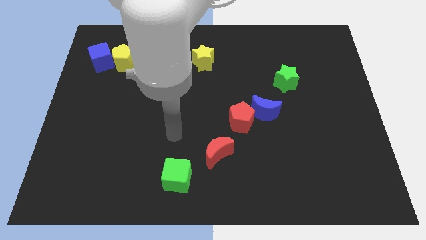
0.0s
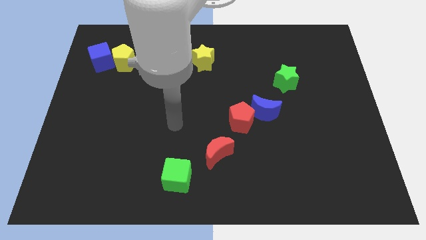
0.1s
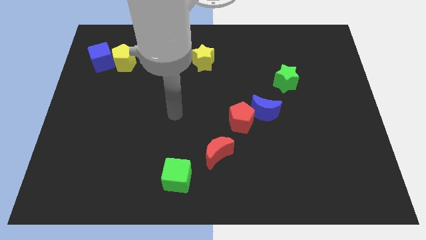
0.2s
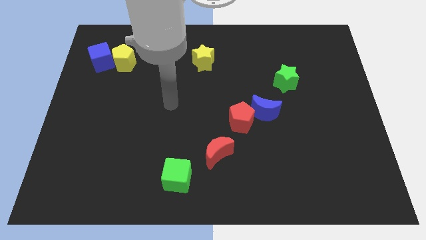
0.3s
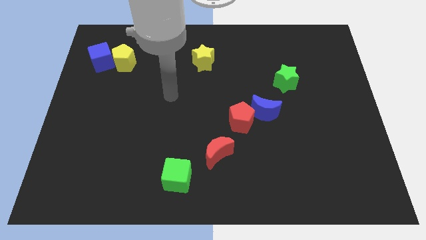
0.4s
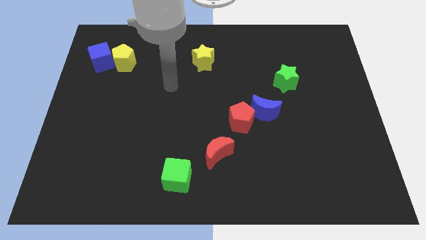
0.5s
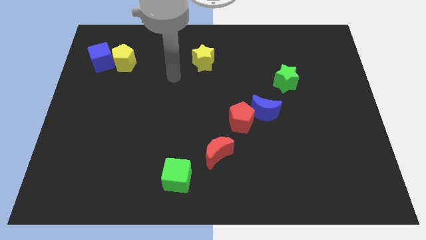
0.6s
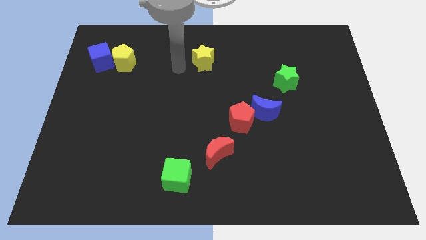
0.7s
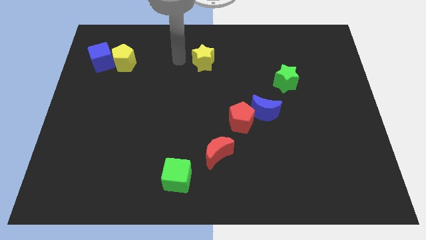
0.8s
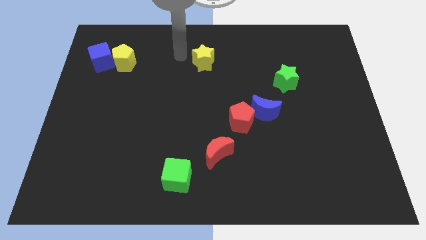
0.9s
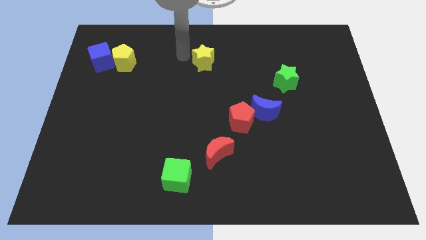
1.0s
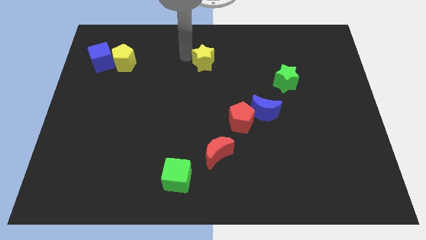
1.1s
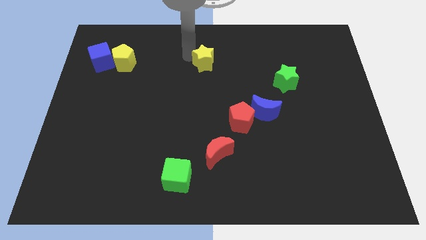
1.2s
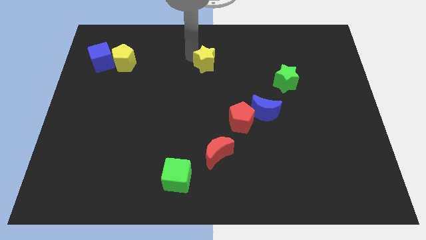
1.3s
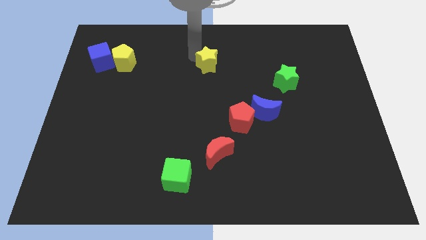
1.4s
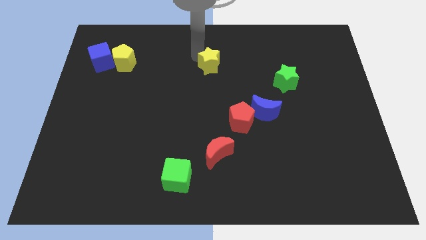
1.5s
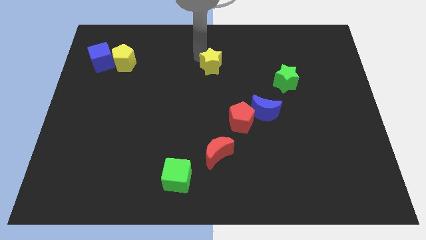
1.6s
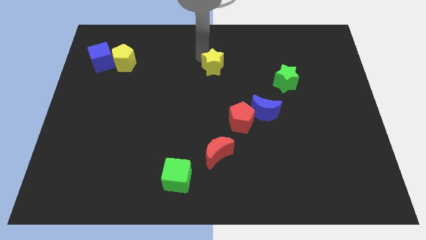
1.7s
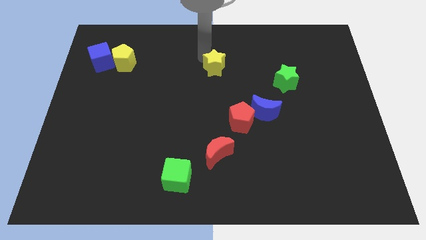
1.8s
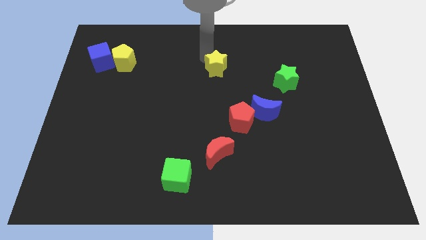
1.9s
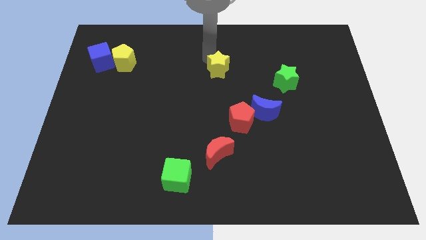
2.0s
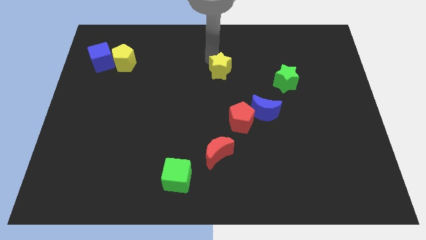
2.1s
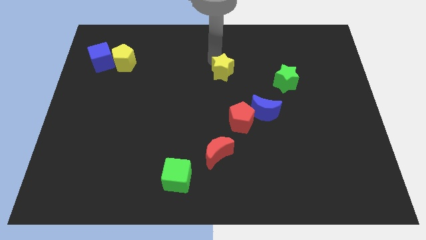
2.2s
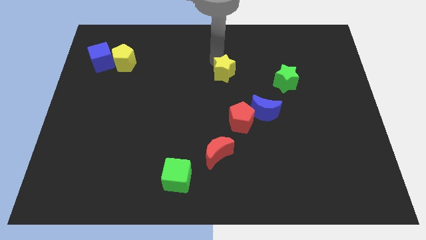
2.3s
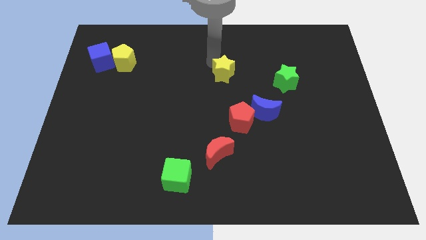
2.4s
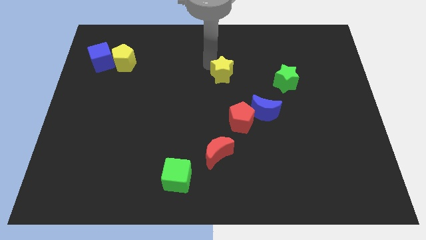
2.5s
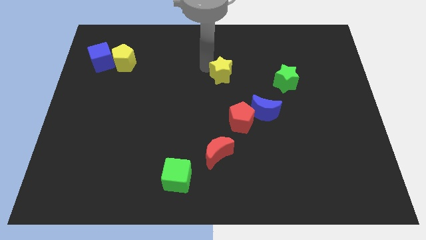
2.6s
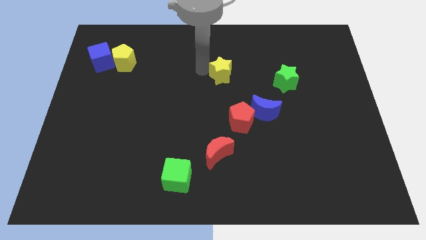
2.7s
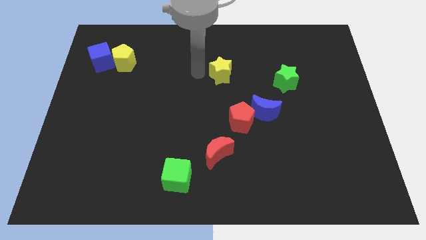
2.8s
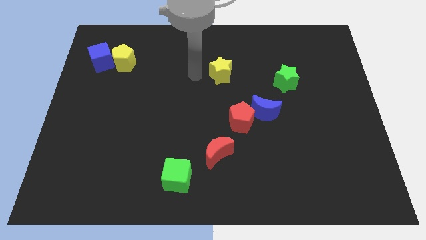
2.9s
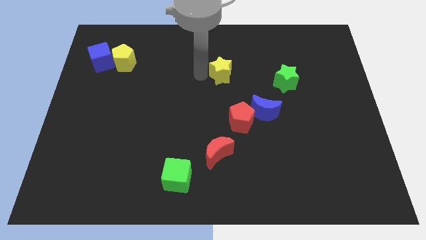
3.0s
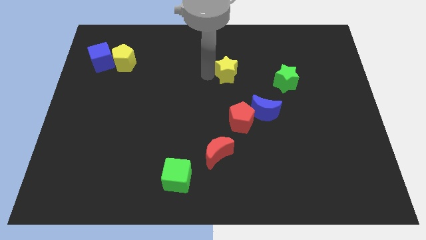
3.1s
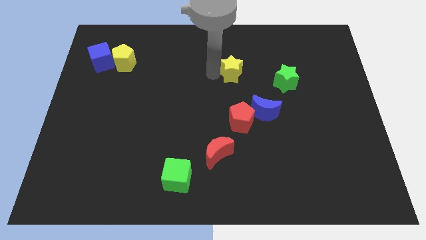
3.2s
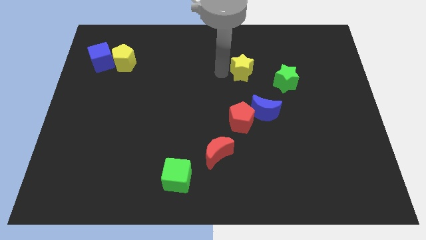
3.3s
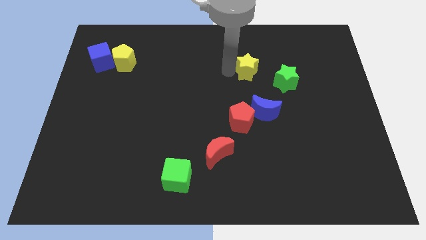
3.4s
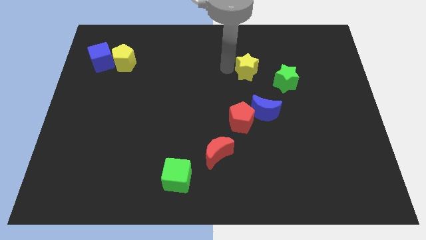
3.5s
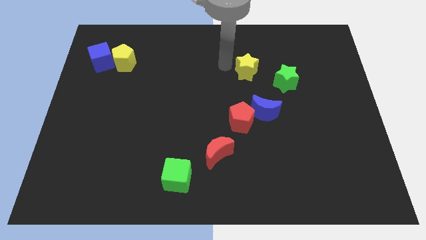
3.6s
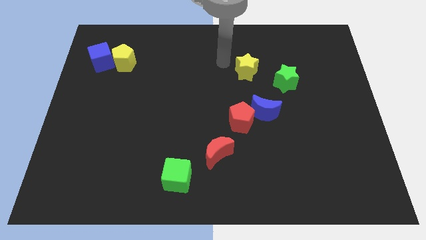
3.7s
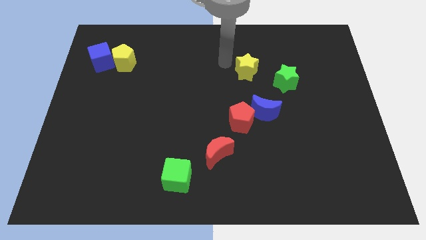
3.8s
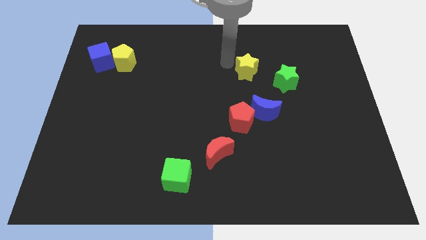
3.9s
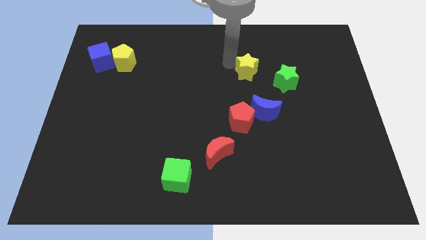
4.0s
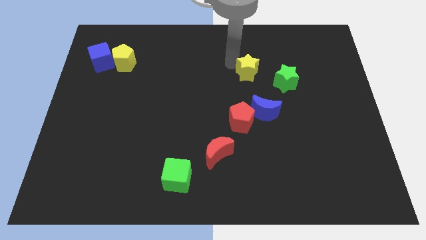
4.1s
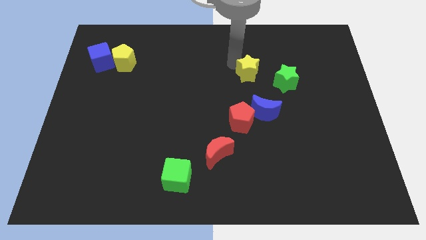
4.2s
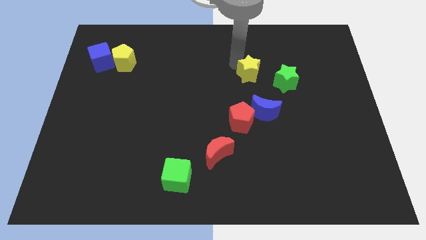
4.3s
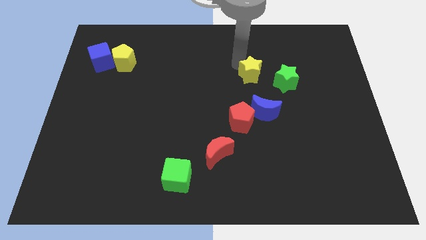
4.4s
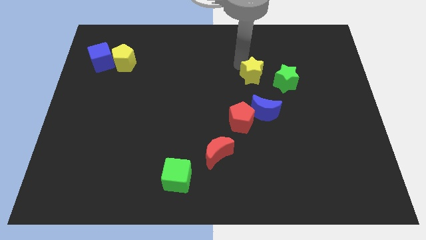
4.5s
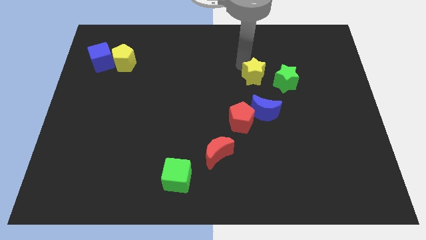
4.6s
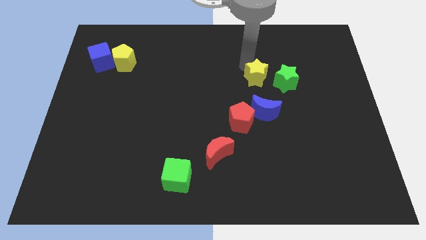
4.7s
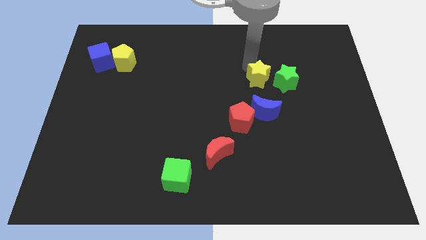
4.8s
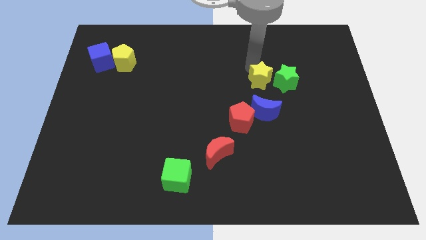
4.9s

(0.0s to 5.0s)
push the yellow star next to the green star
